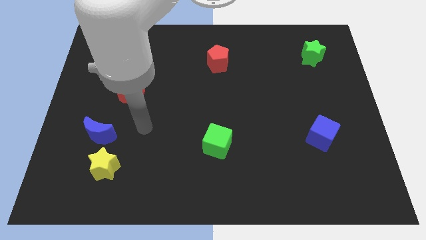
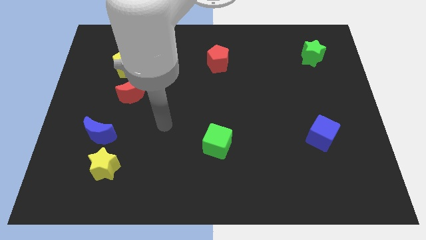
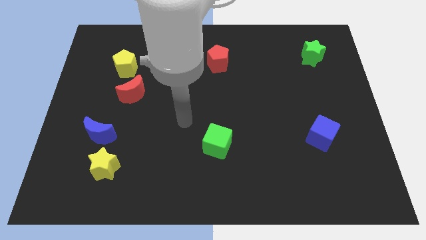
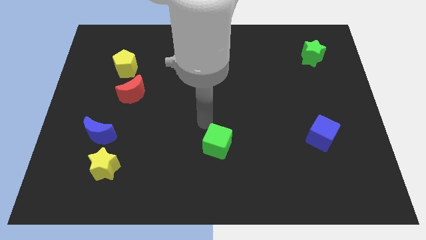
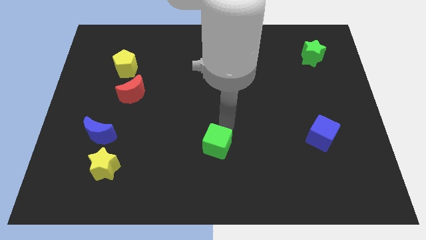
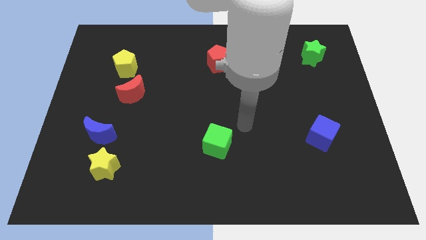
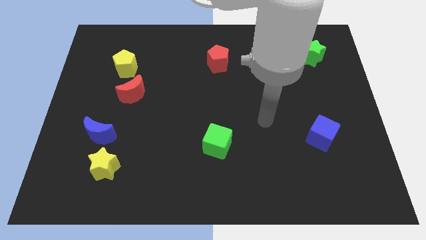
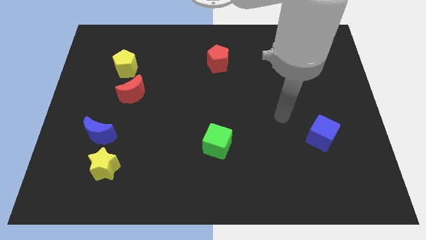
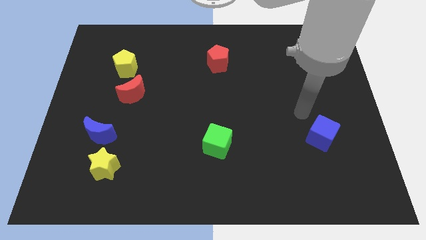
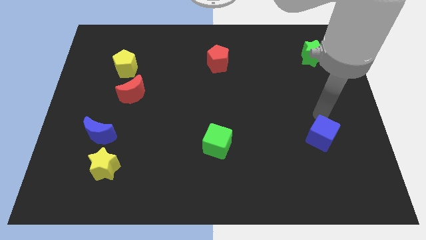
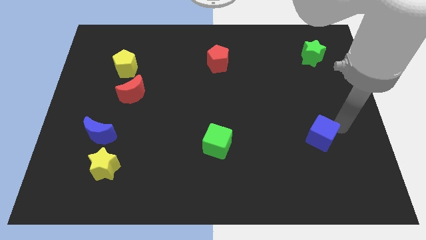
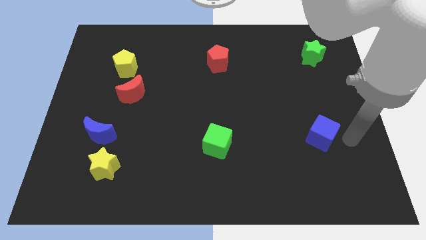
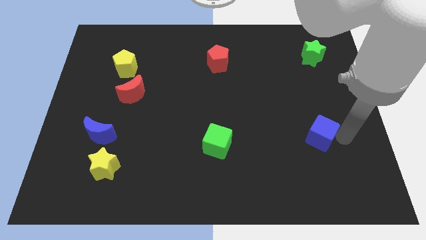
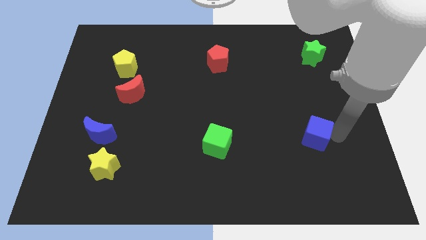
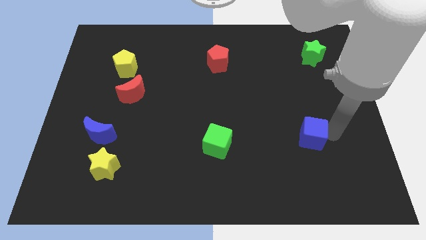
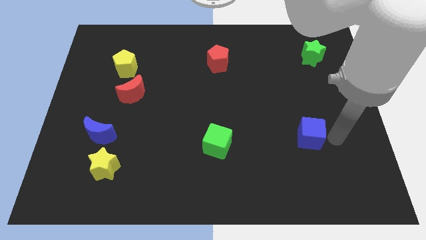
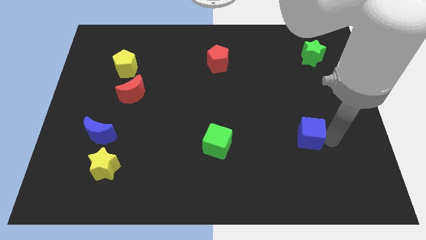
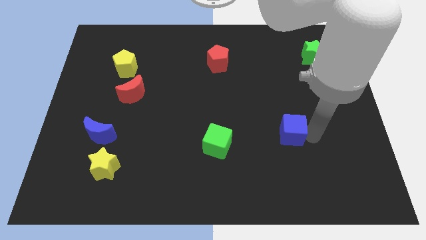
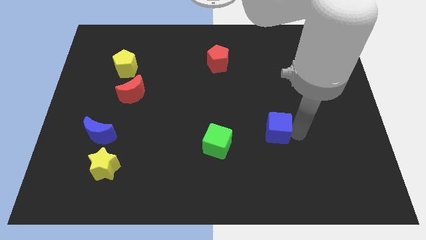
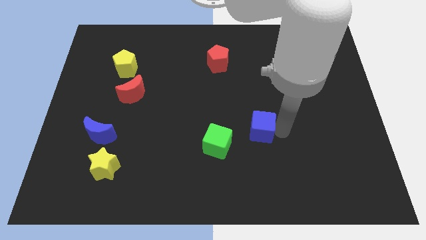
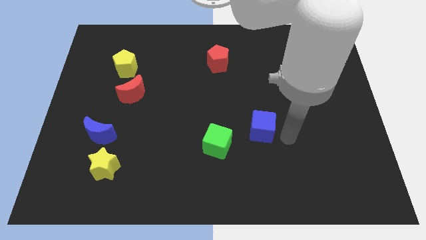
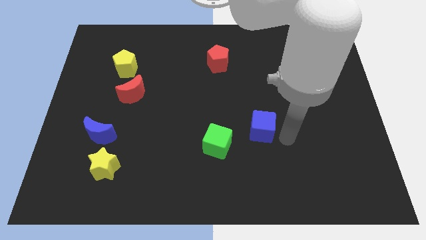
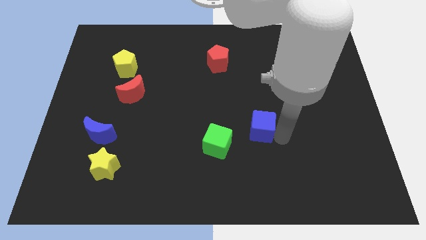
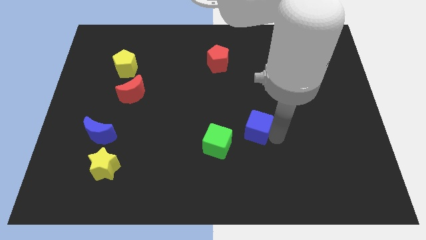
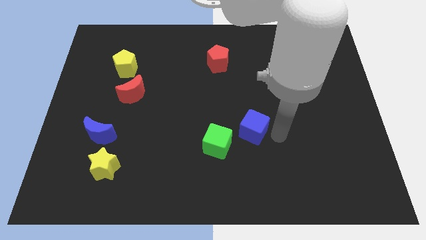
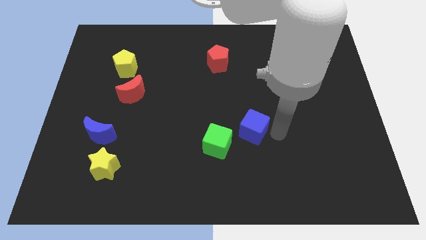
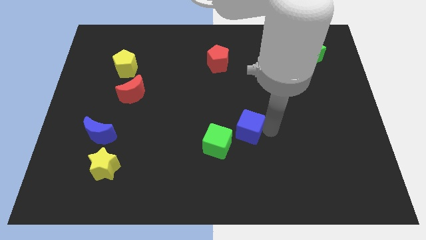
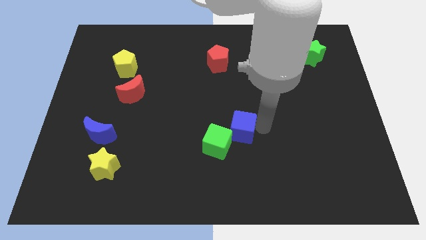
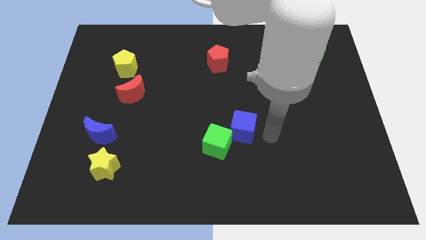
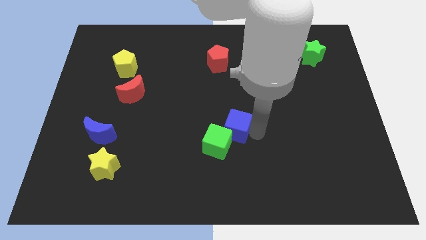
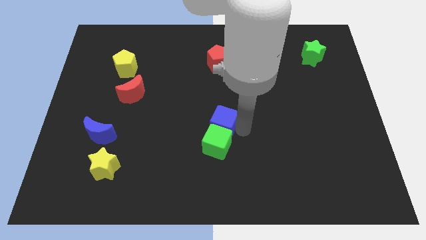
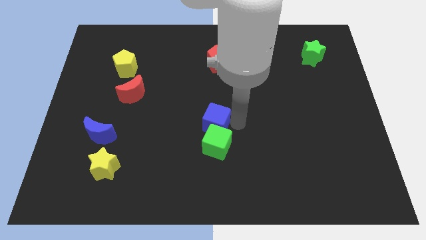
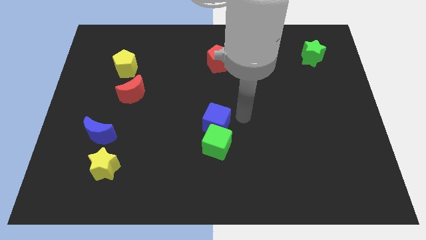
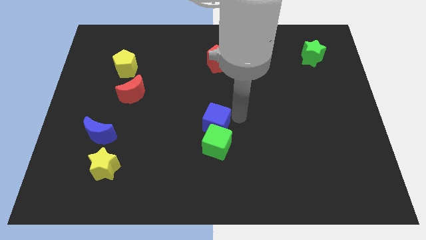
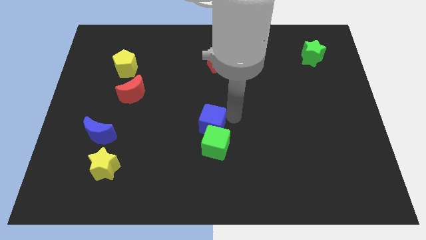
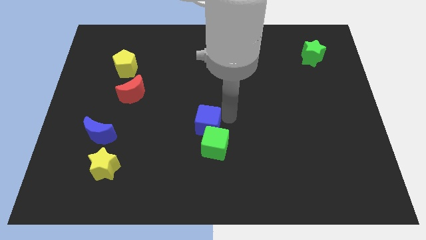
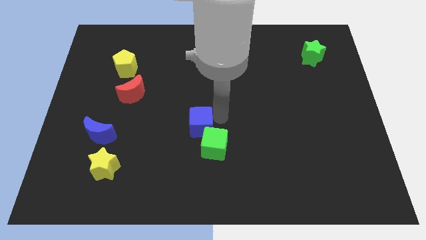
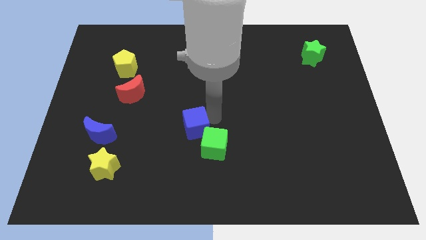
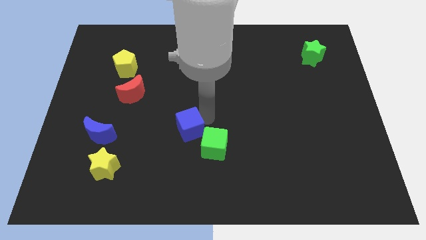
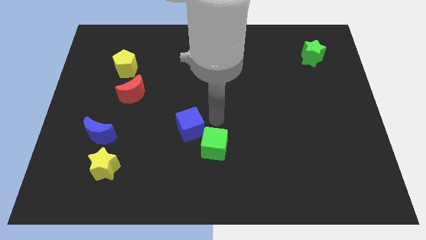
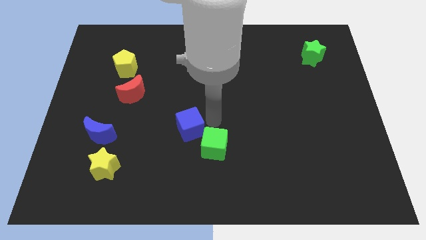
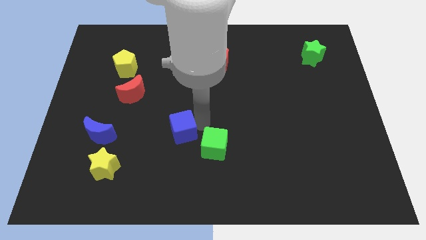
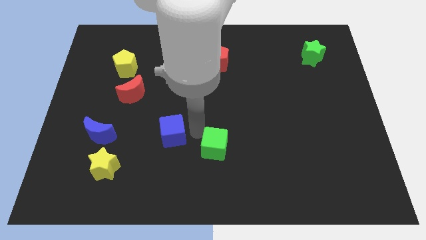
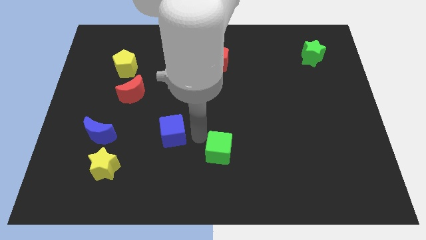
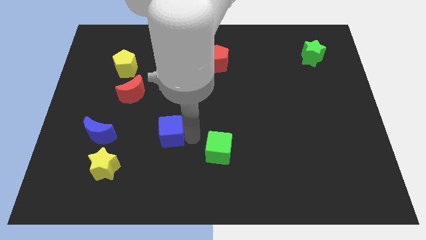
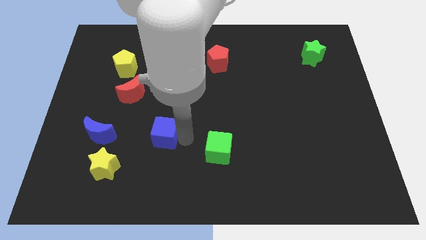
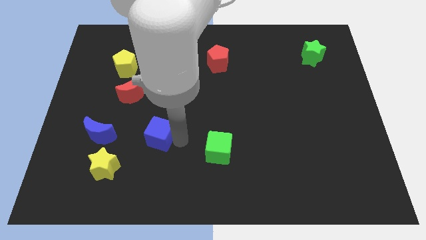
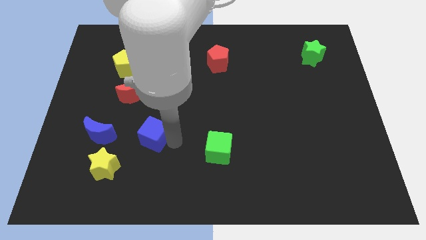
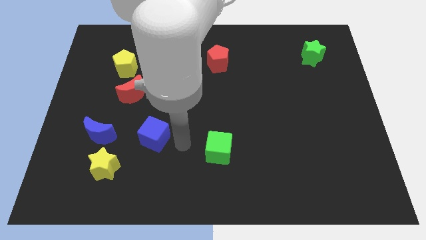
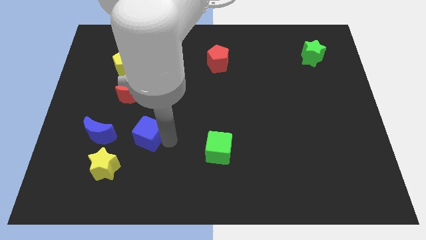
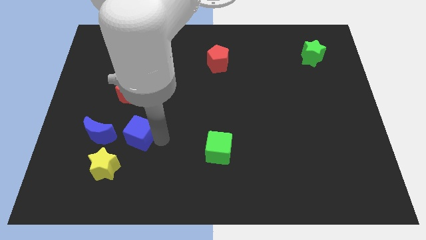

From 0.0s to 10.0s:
put the blue cube to the bottom of the red moon

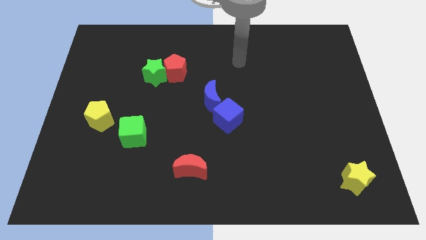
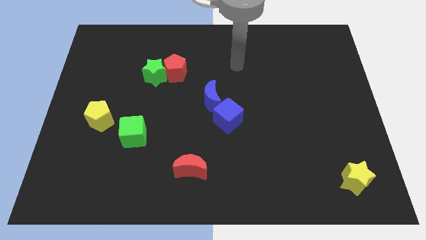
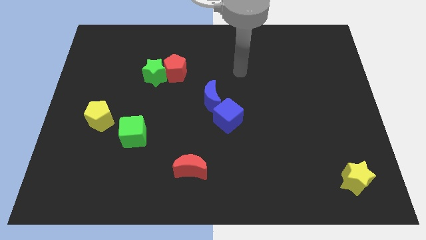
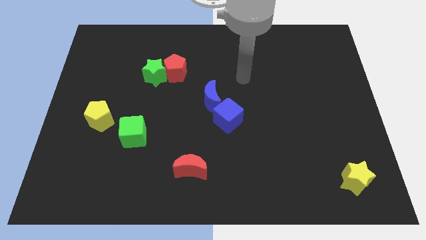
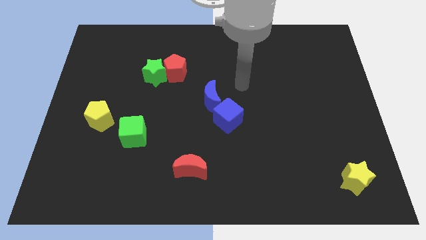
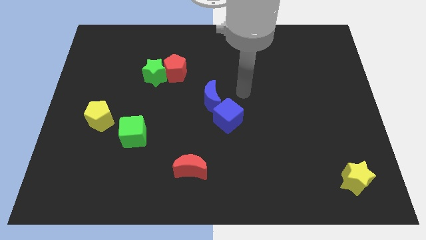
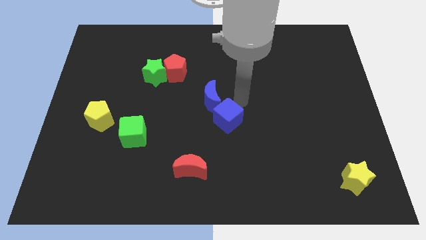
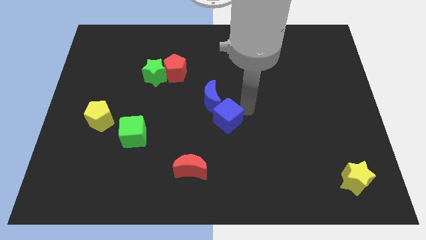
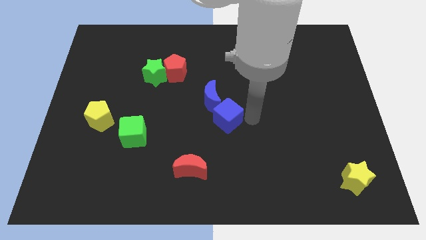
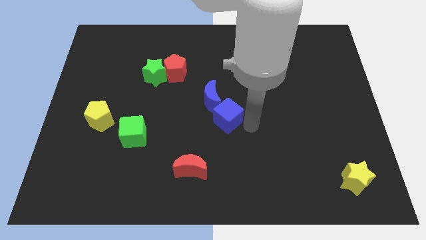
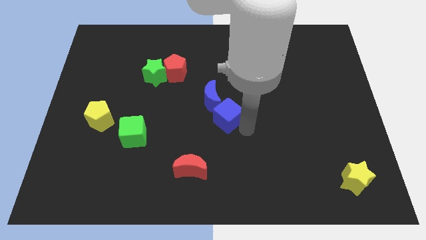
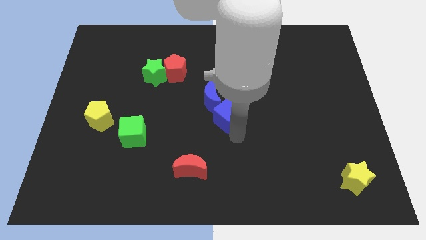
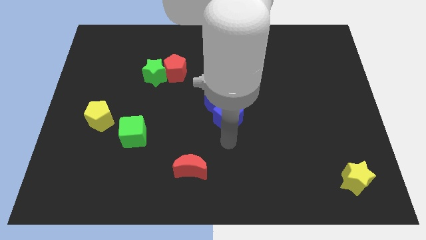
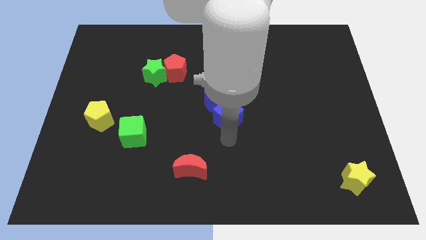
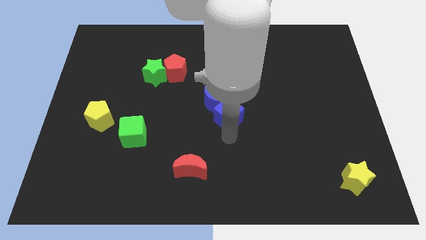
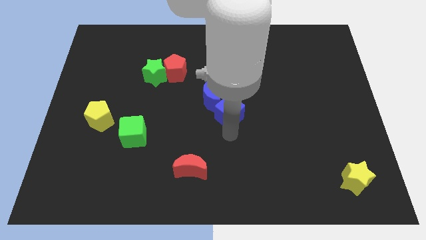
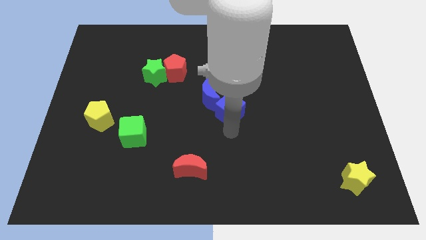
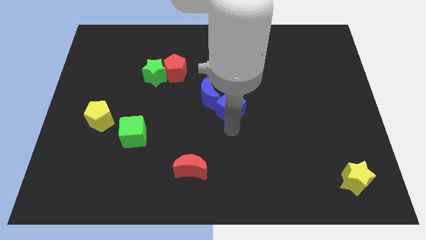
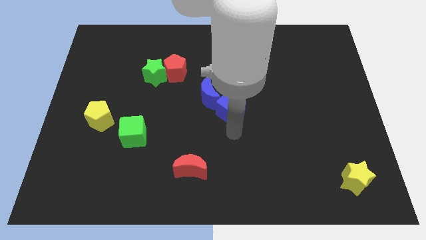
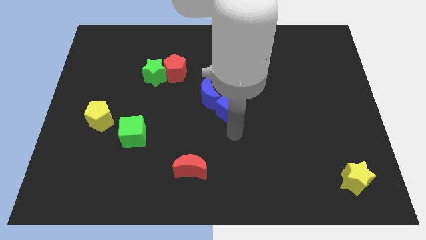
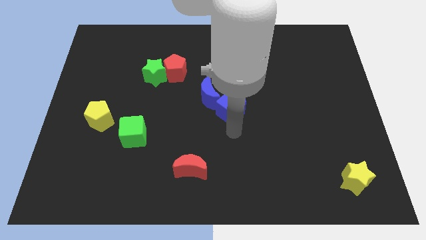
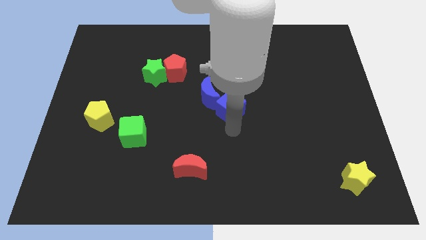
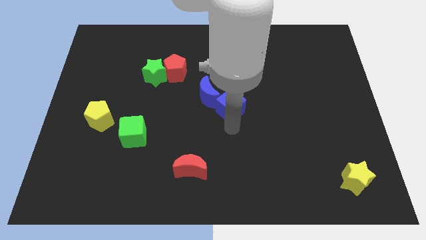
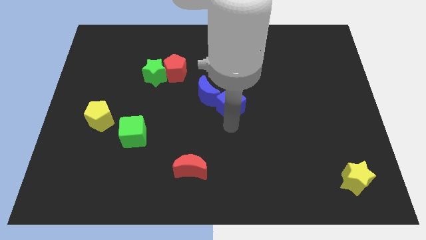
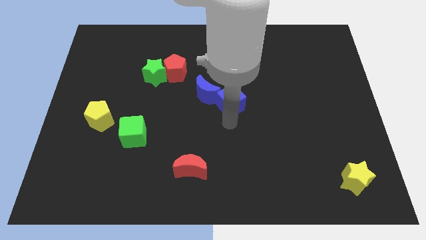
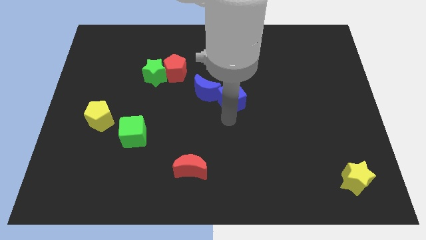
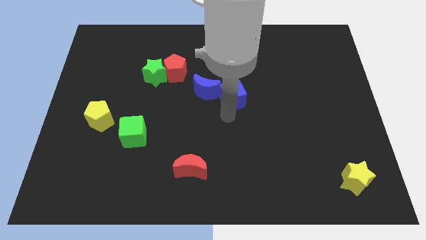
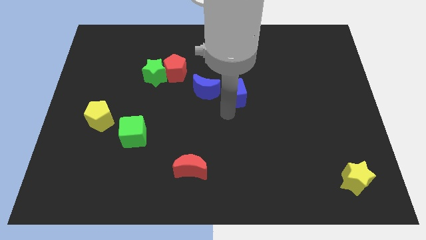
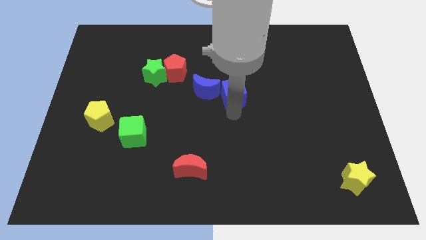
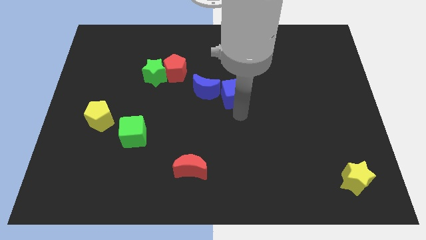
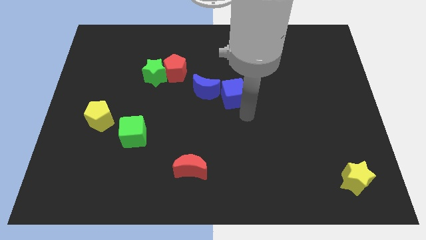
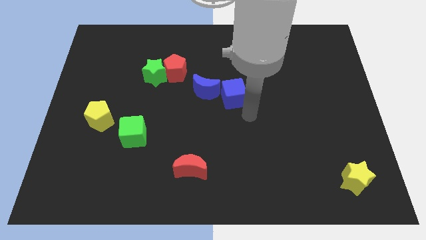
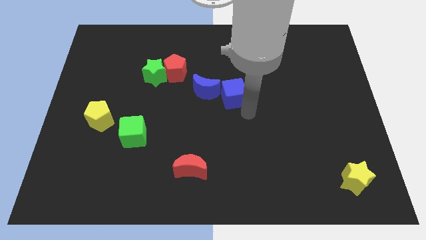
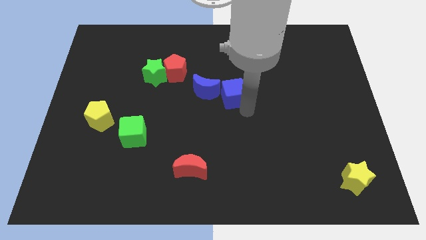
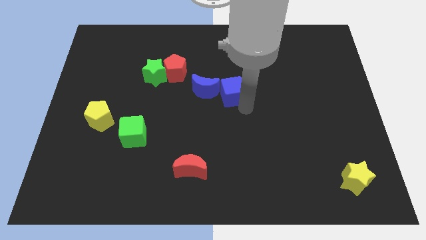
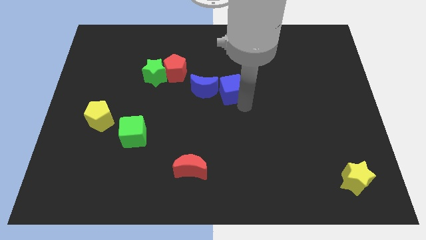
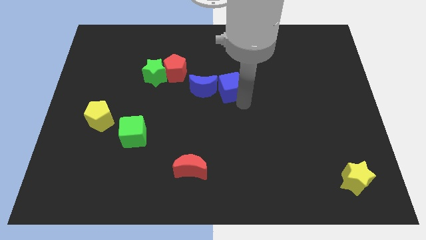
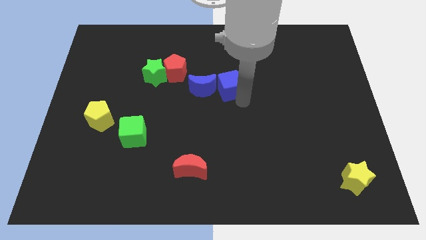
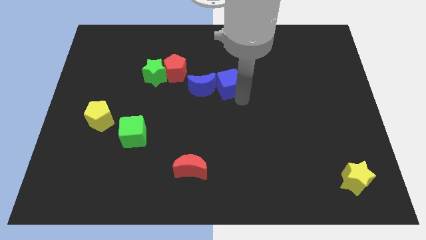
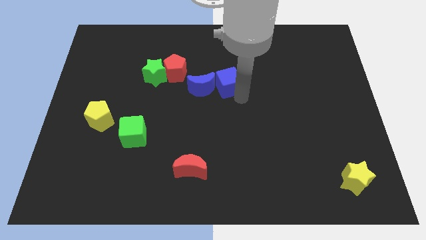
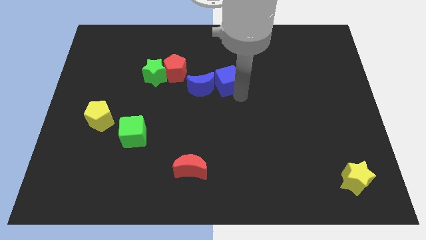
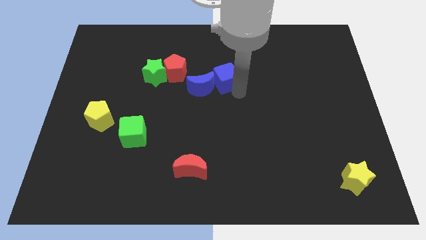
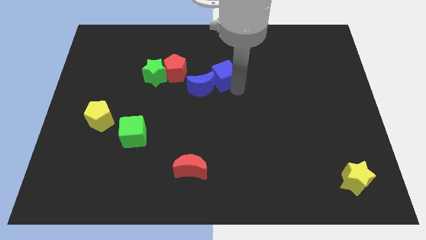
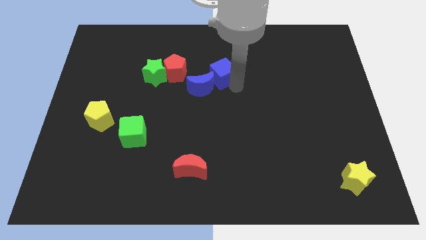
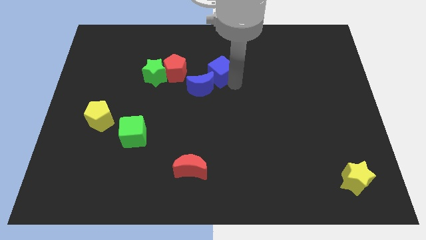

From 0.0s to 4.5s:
move the blue cube to the top side of the blue moon
